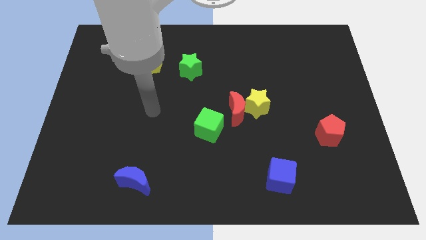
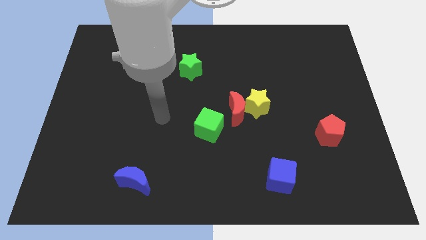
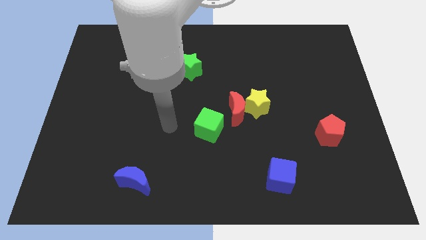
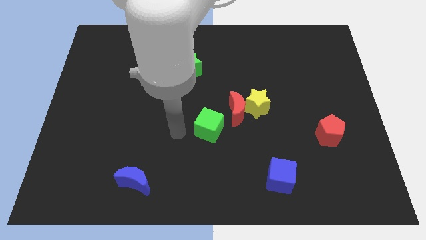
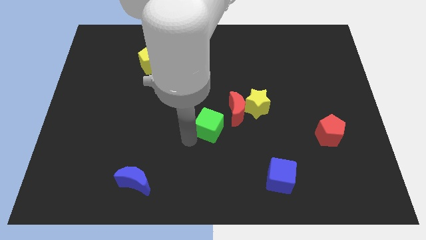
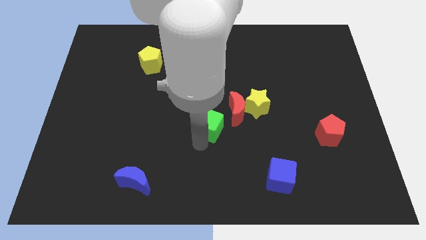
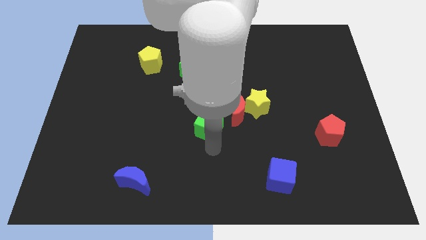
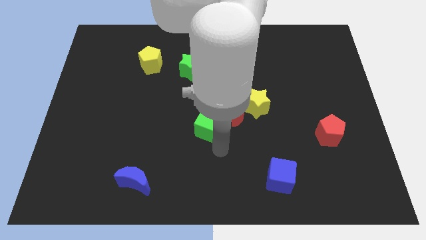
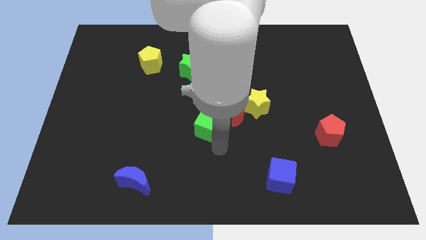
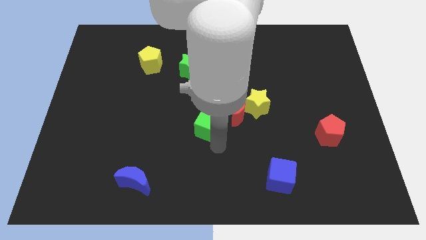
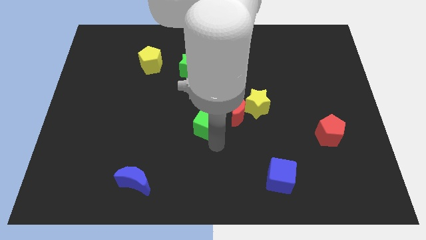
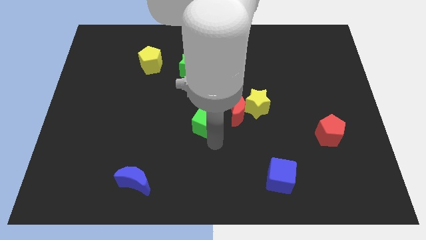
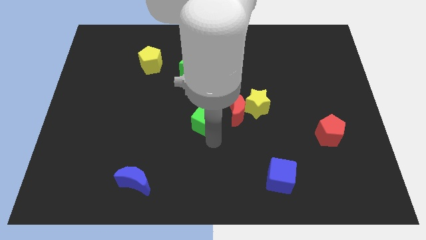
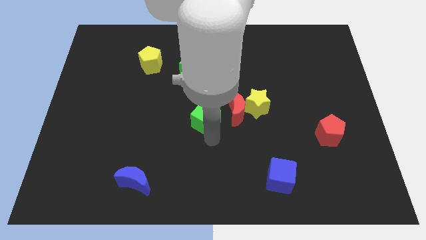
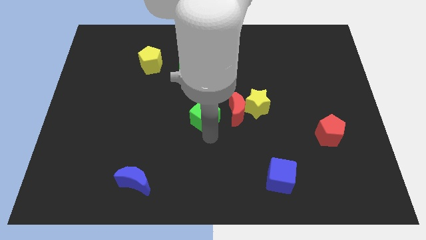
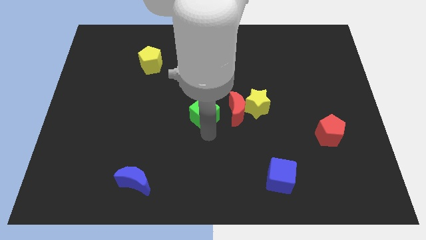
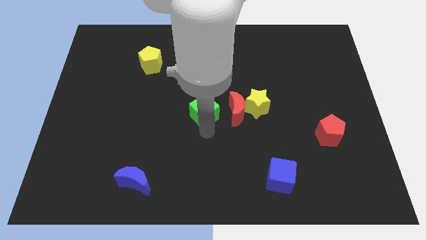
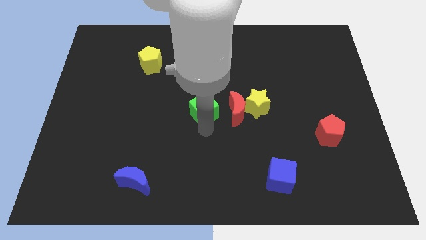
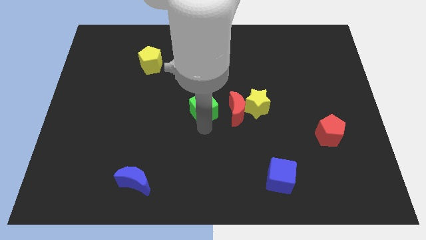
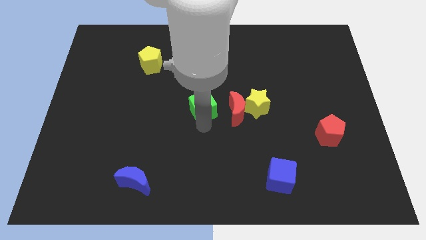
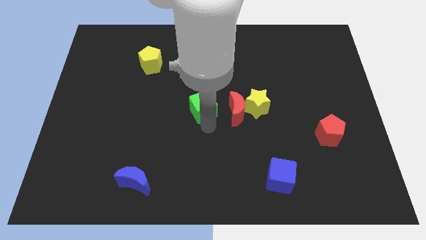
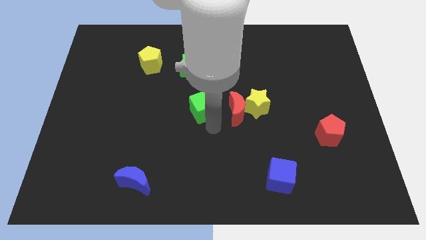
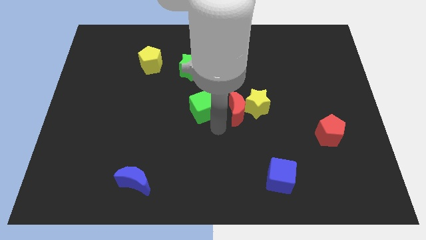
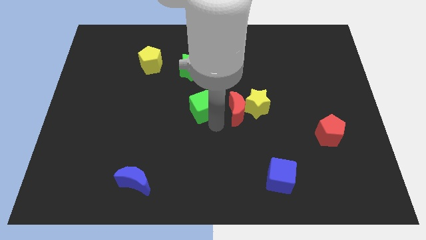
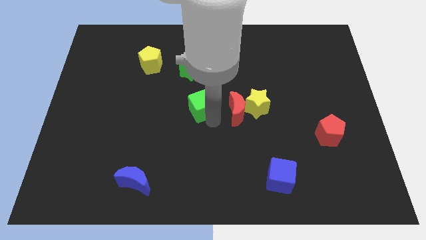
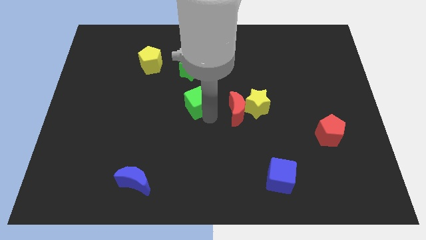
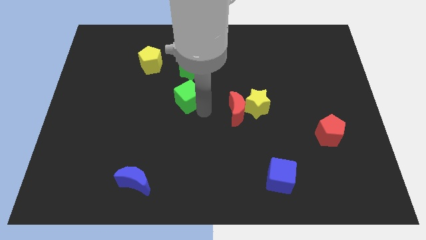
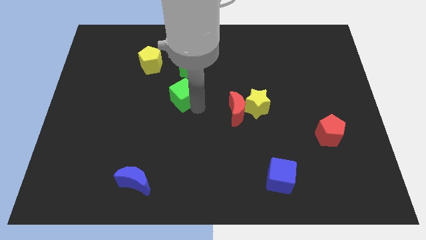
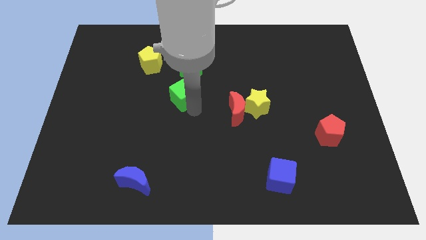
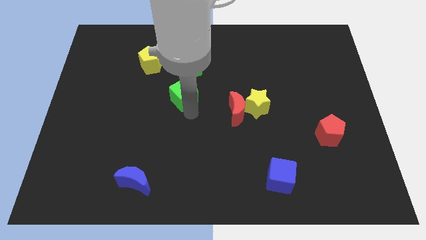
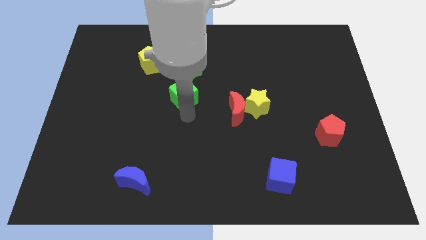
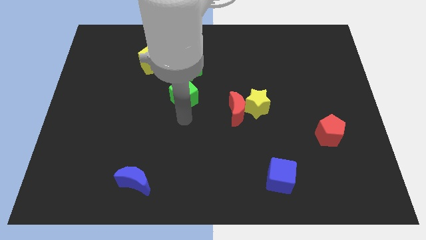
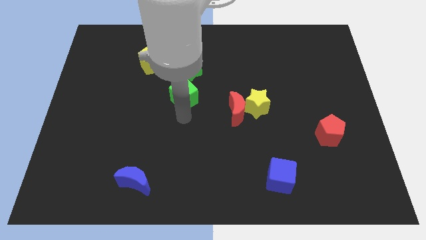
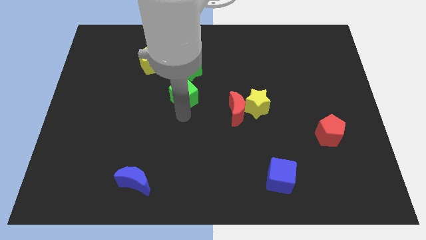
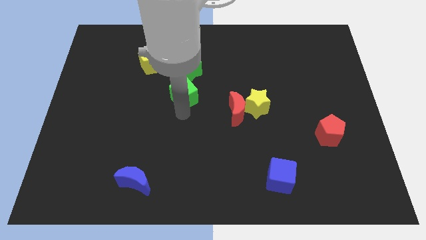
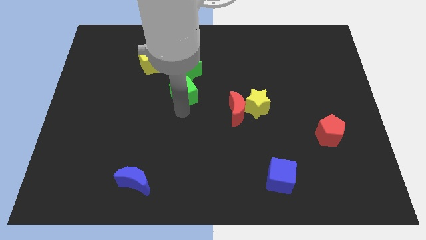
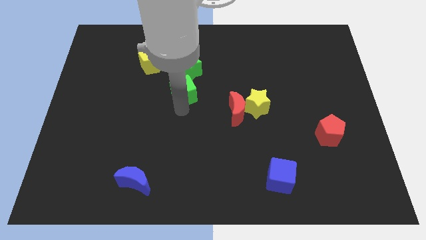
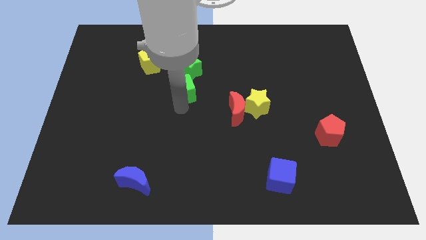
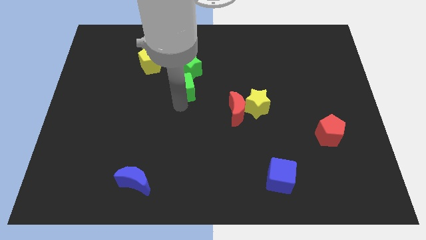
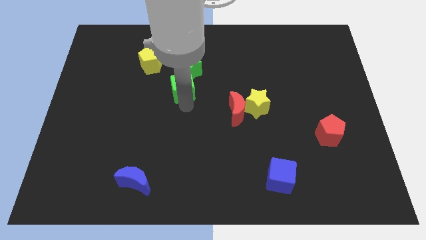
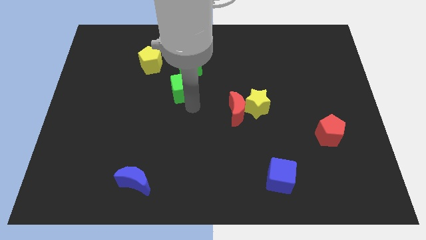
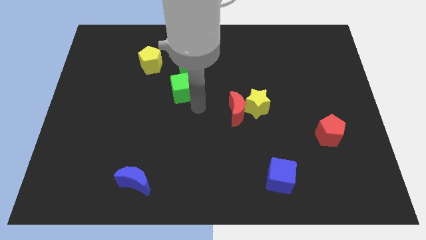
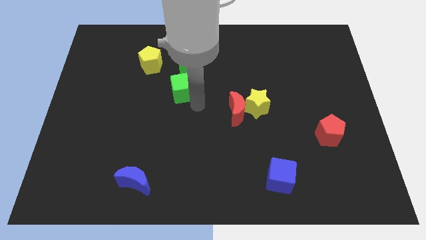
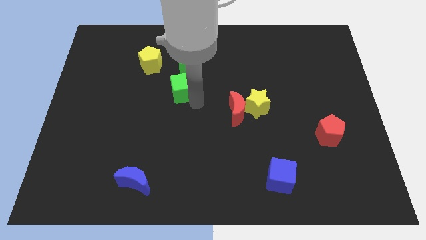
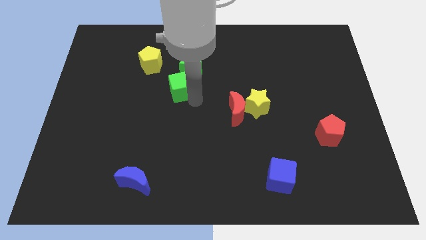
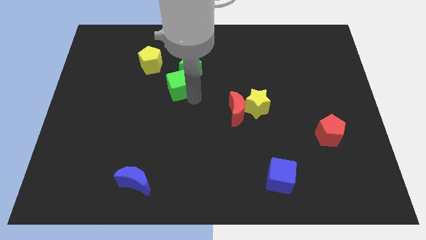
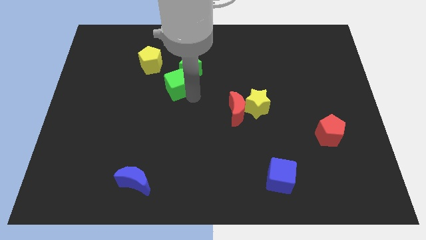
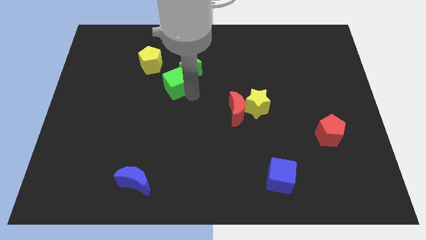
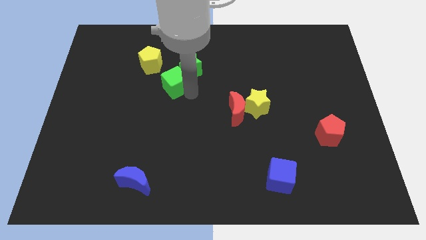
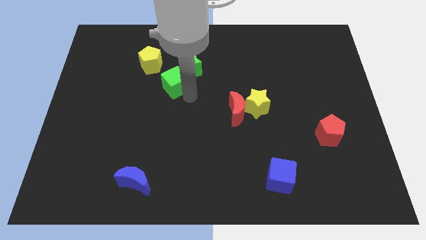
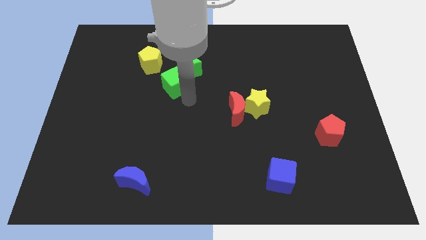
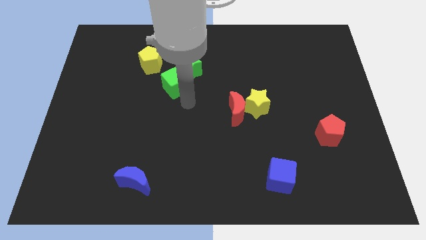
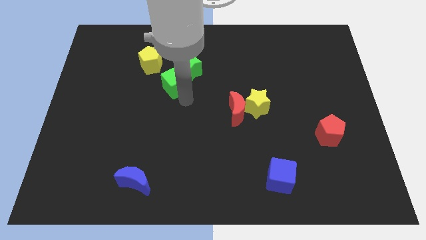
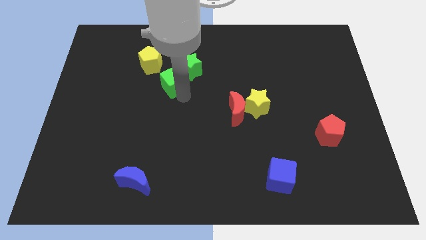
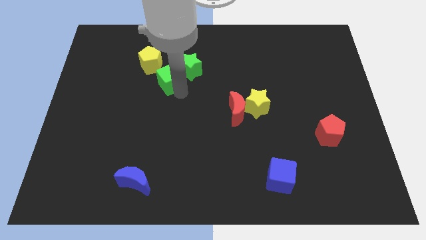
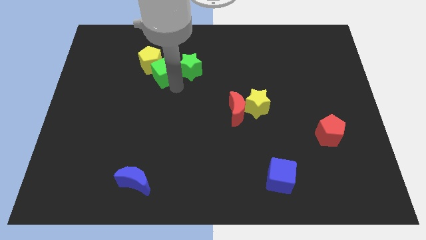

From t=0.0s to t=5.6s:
push the green cube to the yellow pentagon

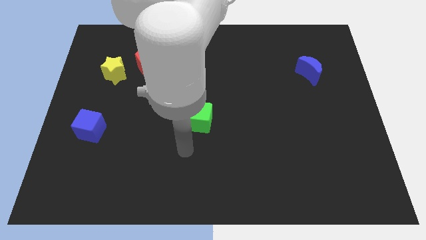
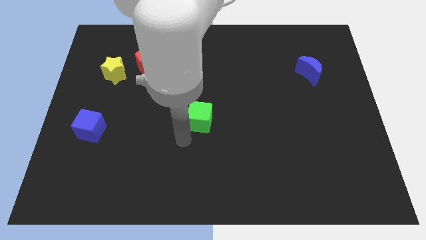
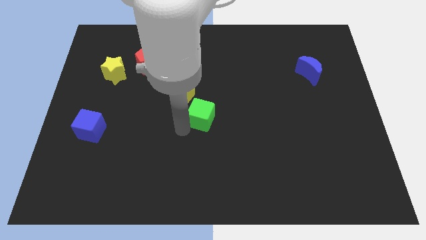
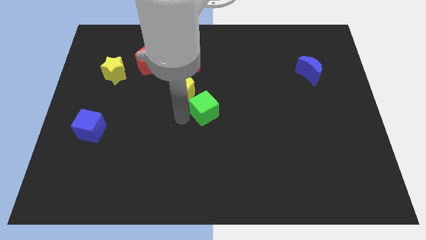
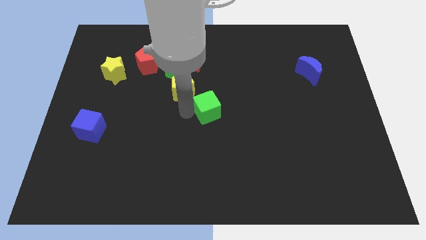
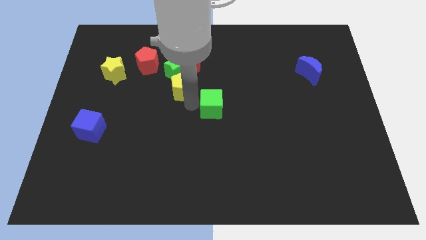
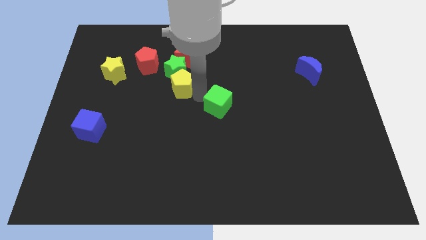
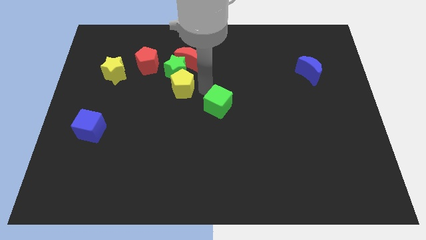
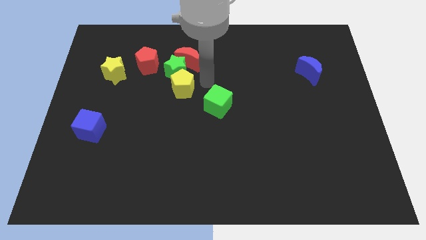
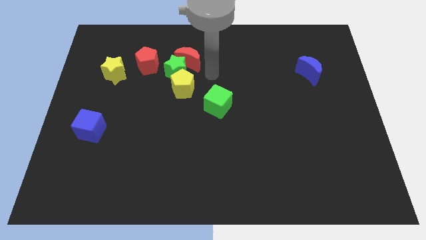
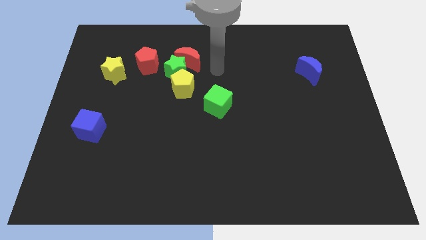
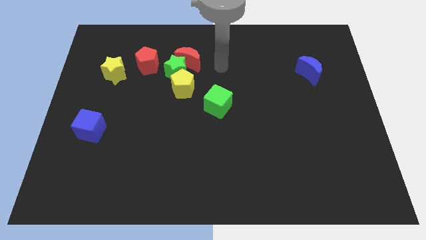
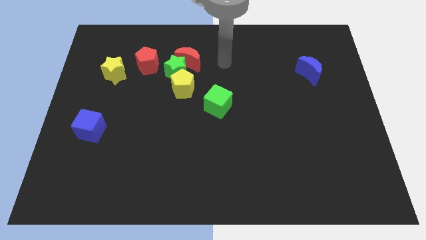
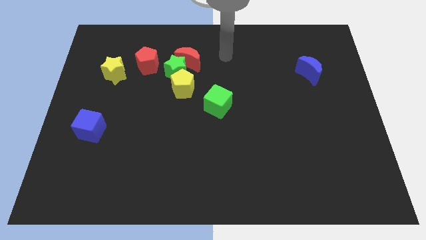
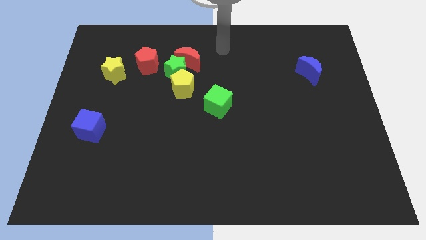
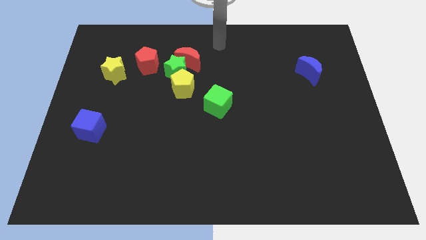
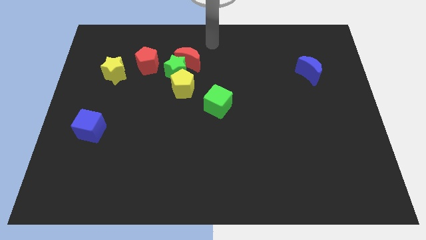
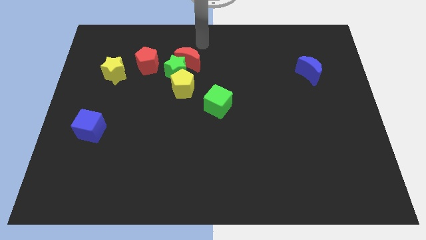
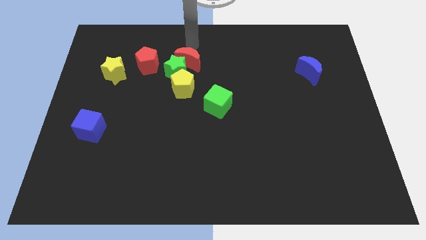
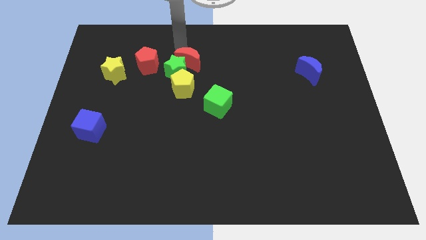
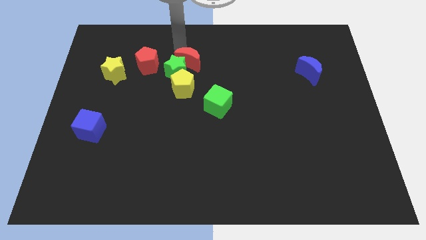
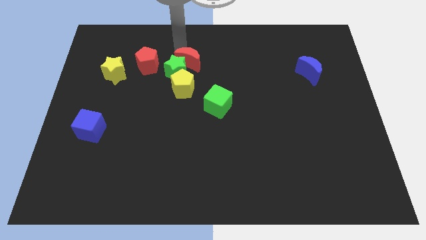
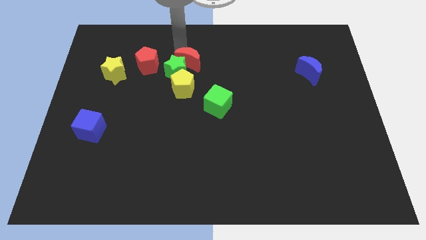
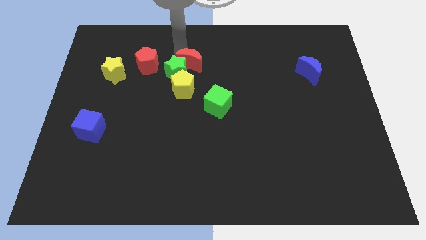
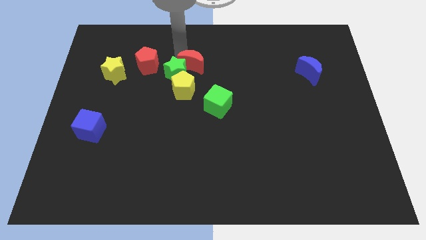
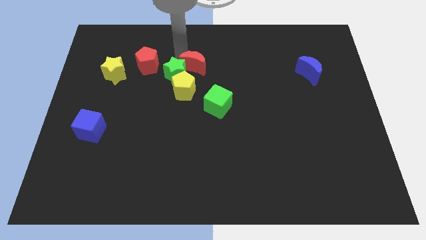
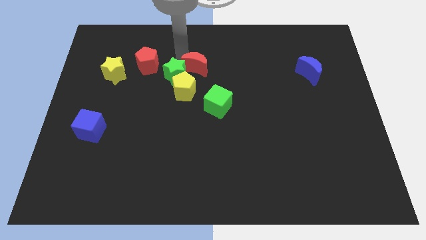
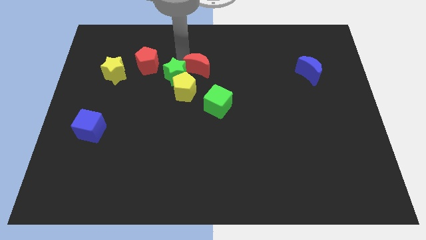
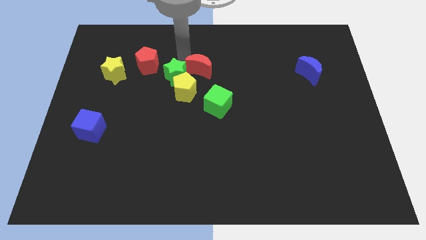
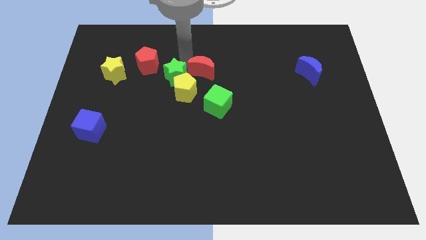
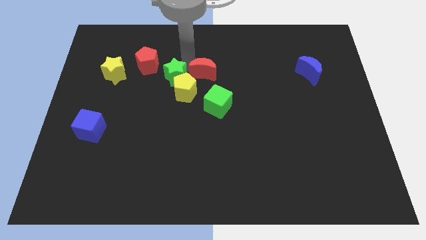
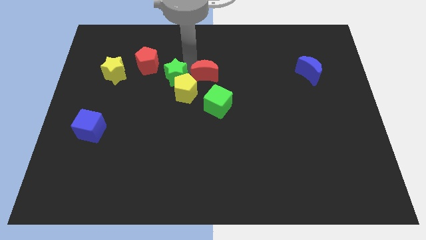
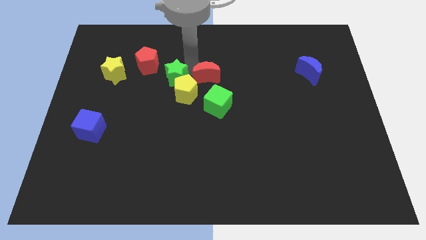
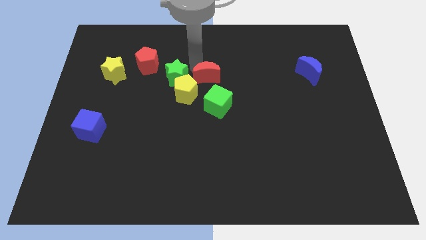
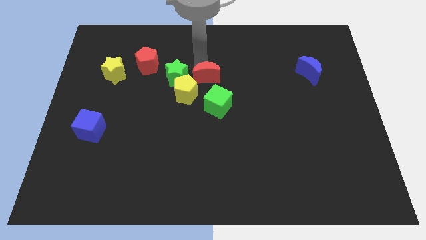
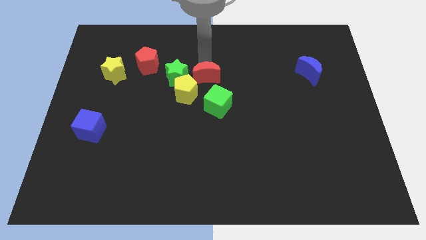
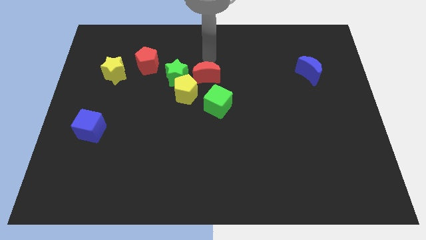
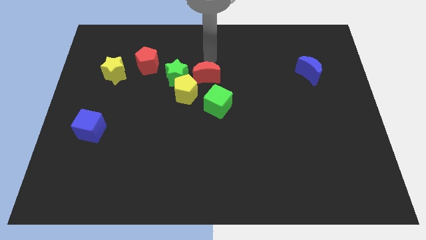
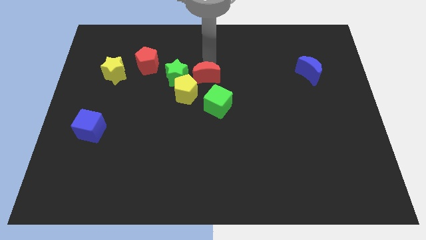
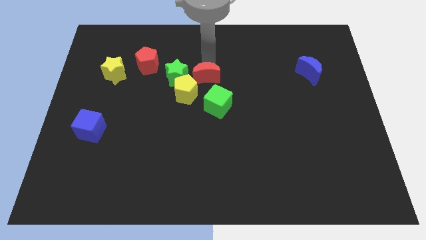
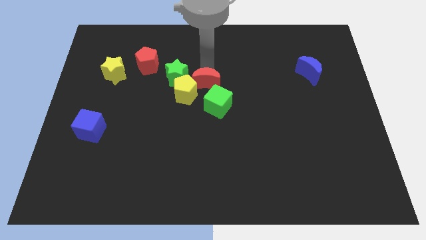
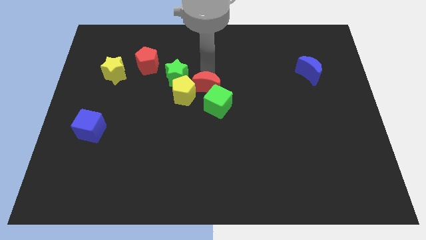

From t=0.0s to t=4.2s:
put the red moon to the green cube
